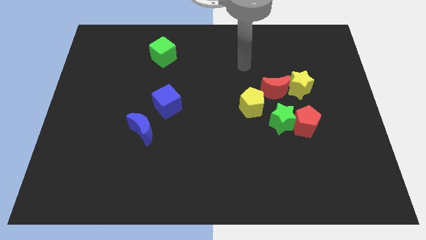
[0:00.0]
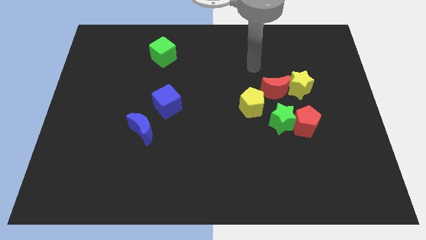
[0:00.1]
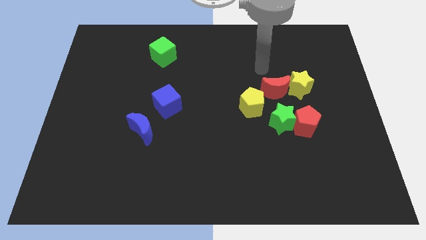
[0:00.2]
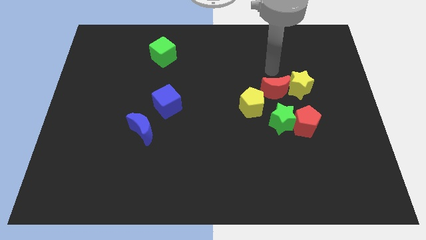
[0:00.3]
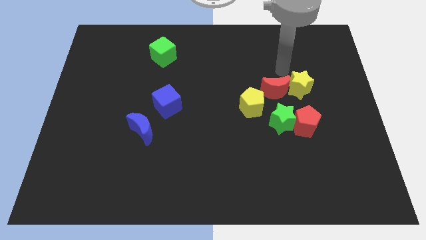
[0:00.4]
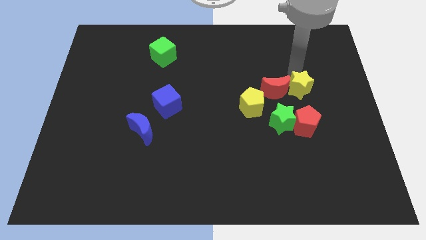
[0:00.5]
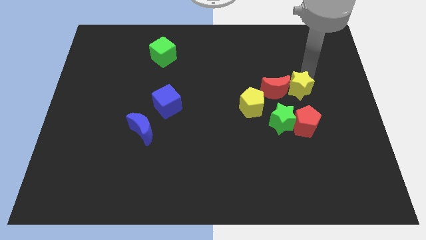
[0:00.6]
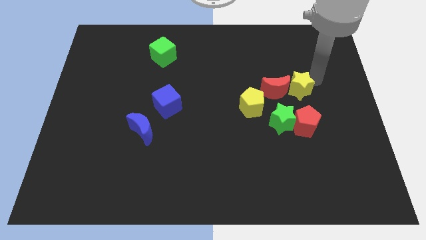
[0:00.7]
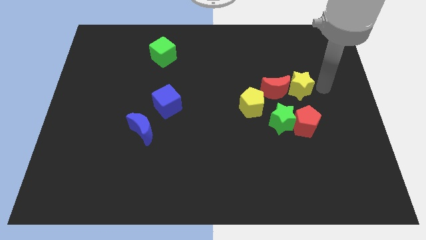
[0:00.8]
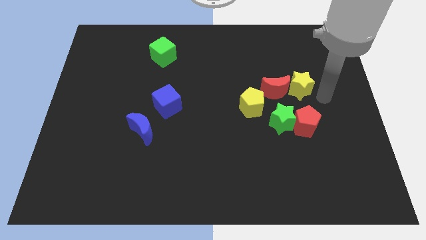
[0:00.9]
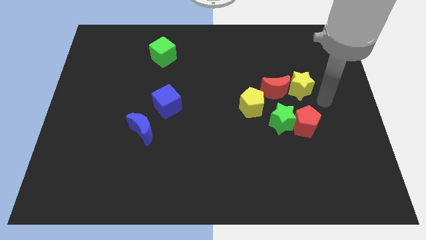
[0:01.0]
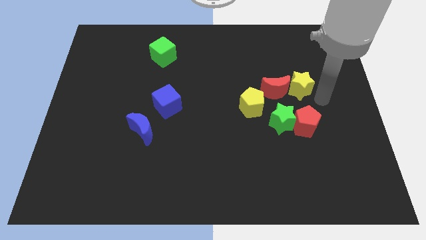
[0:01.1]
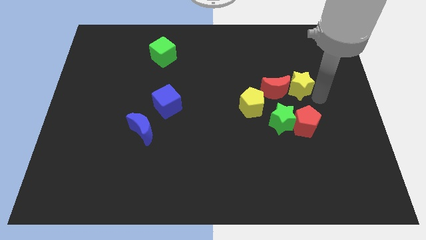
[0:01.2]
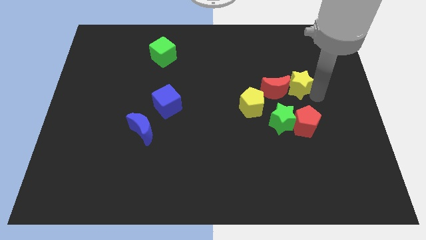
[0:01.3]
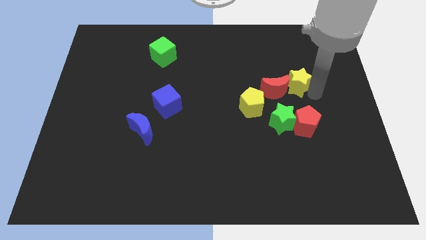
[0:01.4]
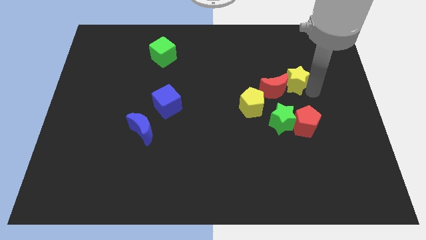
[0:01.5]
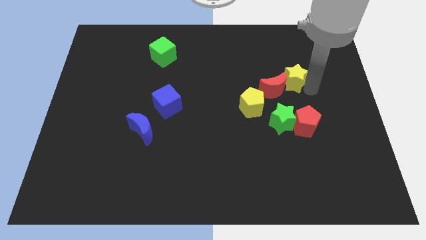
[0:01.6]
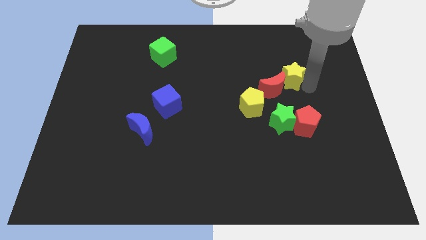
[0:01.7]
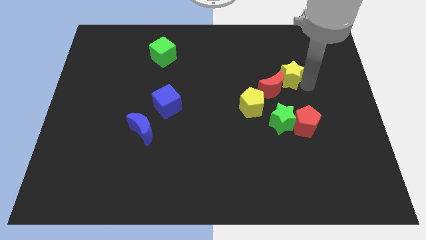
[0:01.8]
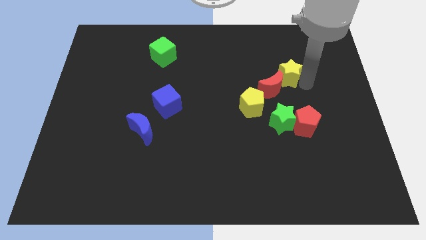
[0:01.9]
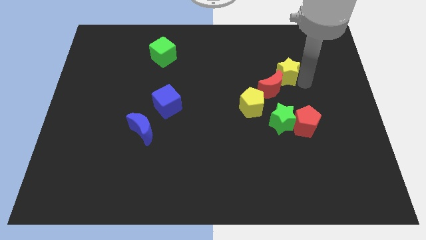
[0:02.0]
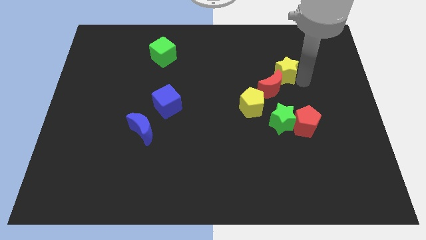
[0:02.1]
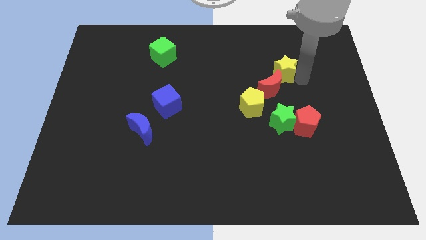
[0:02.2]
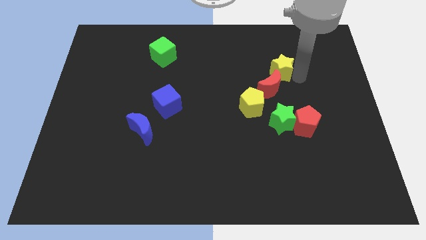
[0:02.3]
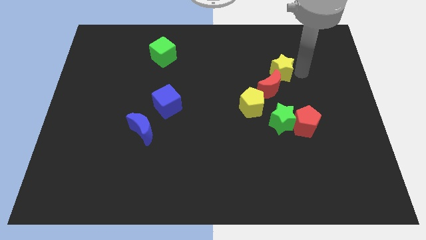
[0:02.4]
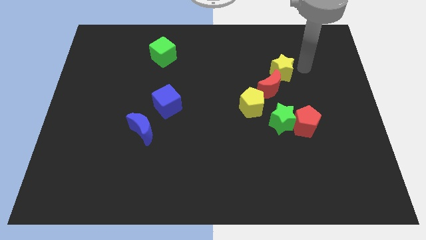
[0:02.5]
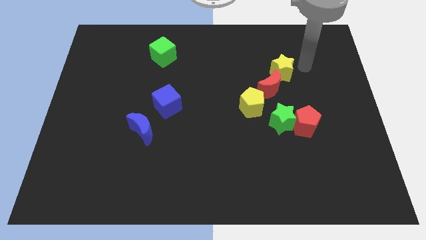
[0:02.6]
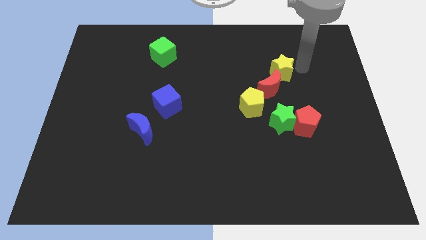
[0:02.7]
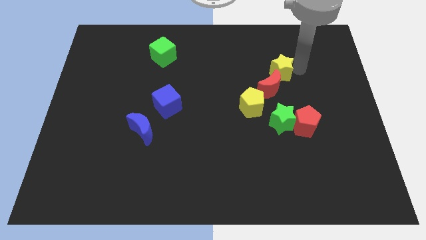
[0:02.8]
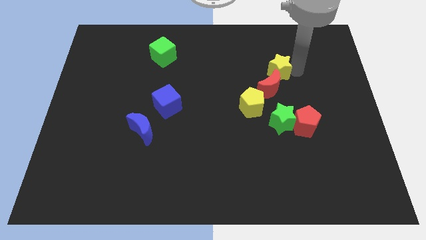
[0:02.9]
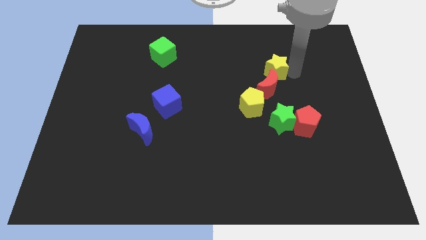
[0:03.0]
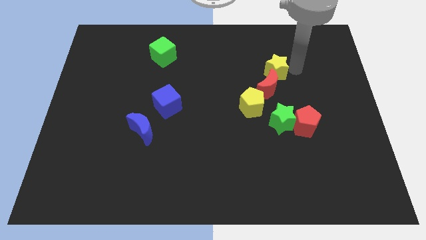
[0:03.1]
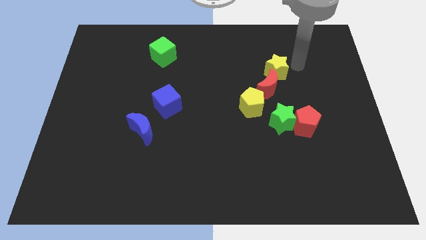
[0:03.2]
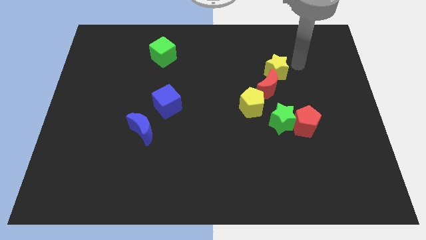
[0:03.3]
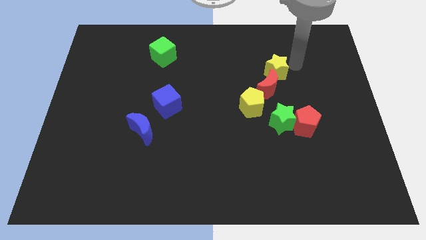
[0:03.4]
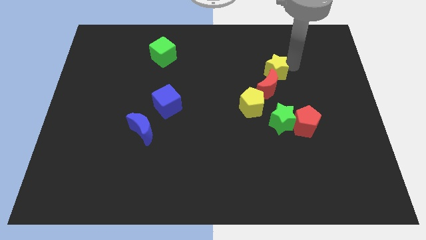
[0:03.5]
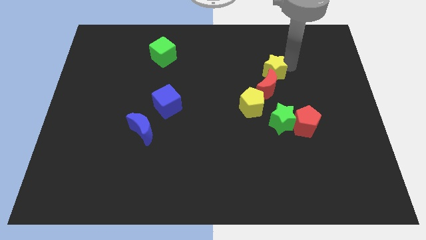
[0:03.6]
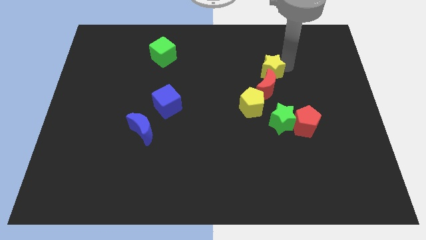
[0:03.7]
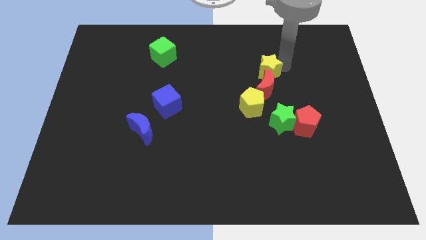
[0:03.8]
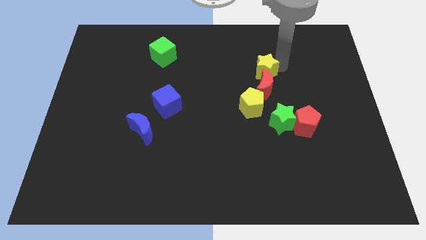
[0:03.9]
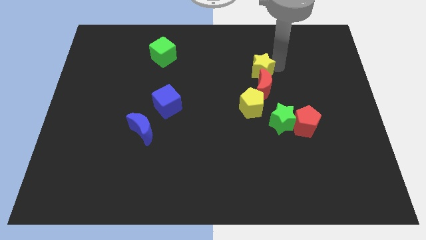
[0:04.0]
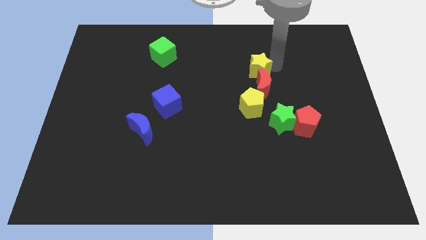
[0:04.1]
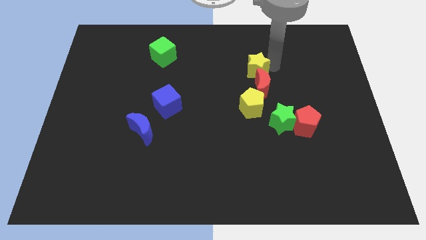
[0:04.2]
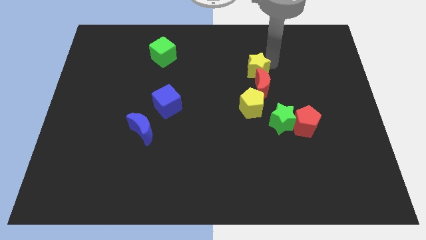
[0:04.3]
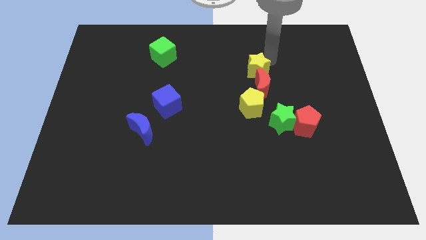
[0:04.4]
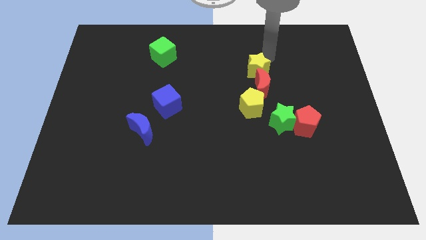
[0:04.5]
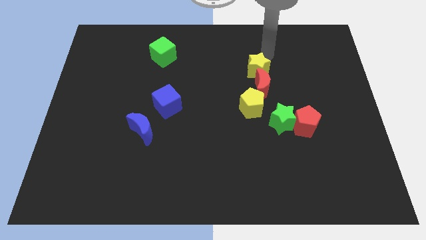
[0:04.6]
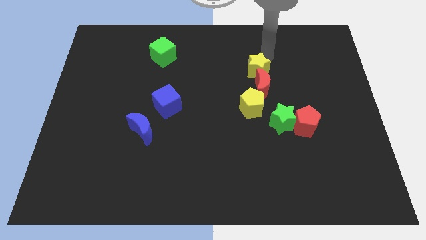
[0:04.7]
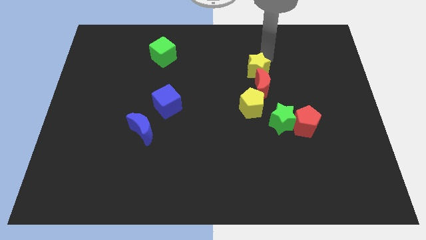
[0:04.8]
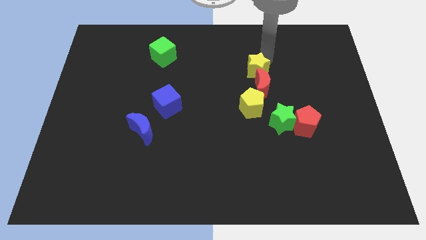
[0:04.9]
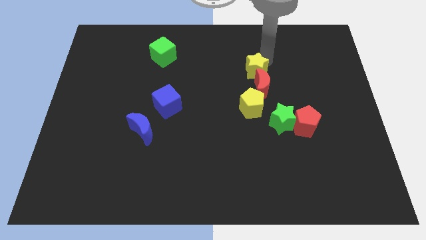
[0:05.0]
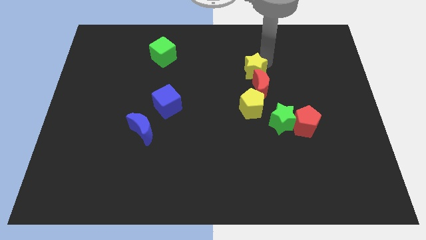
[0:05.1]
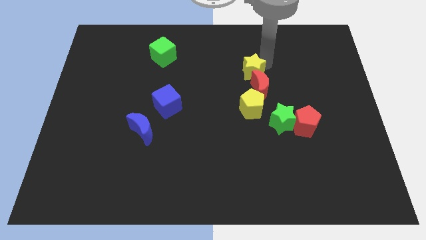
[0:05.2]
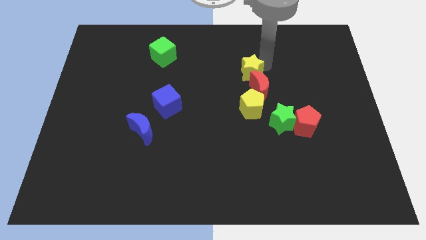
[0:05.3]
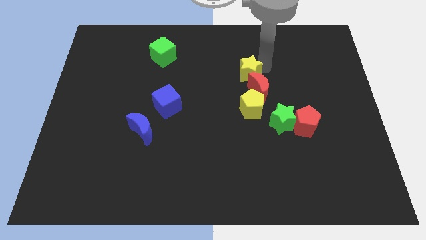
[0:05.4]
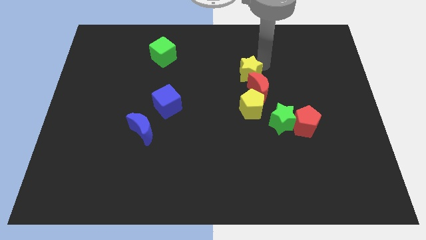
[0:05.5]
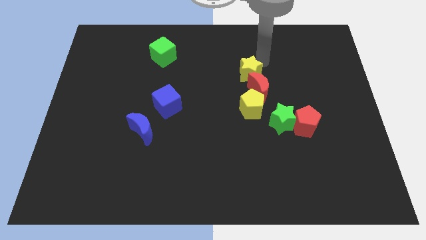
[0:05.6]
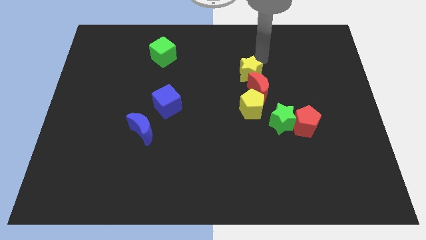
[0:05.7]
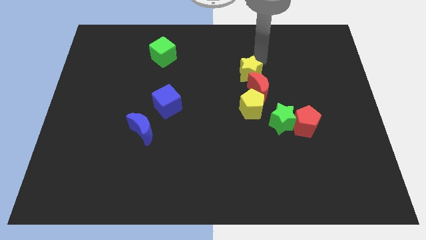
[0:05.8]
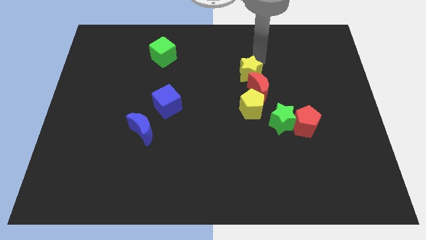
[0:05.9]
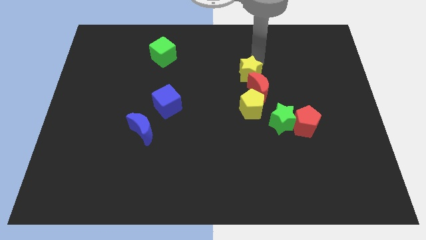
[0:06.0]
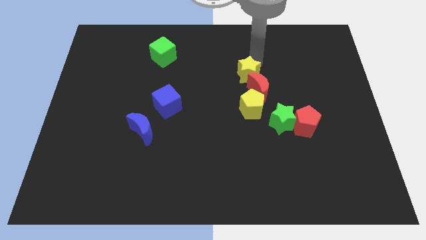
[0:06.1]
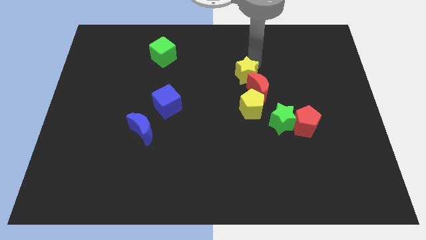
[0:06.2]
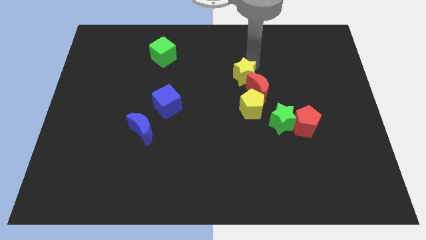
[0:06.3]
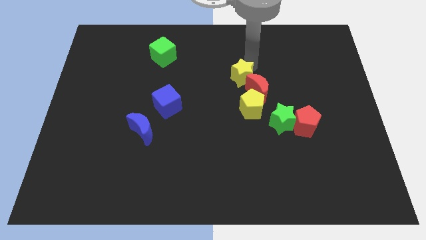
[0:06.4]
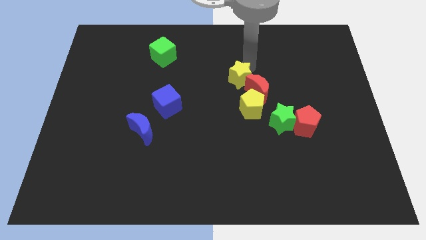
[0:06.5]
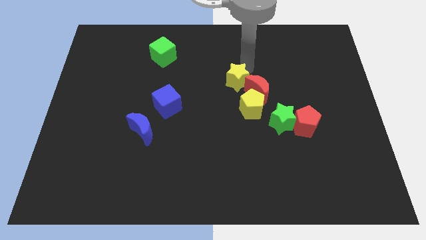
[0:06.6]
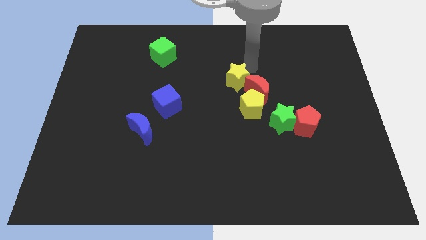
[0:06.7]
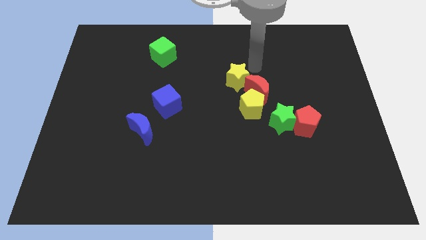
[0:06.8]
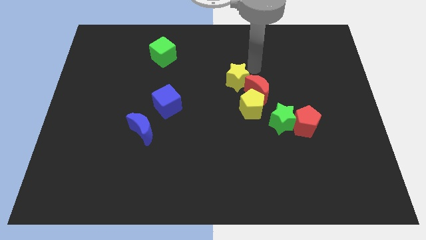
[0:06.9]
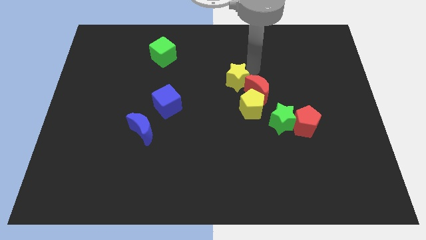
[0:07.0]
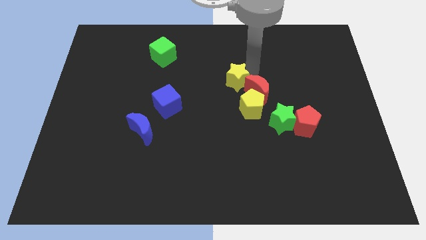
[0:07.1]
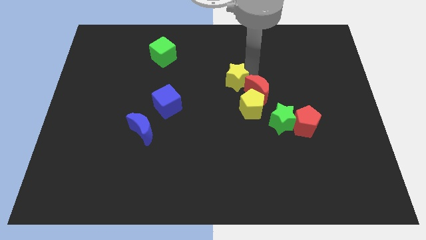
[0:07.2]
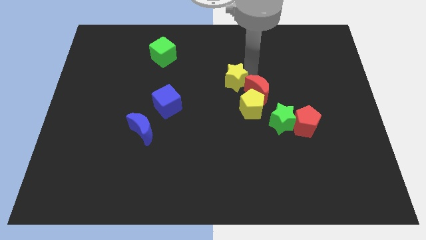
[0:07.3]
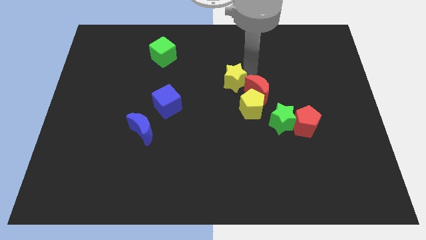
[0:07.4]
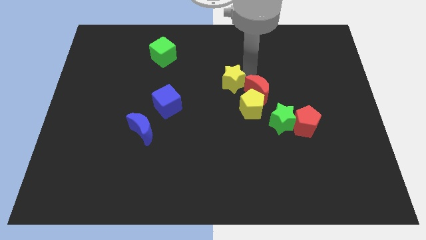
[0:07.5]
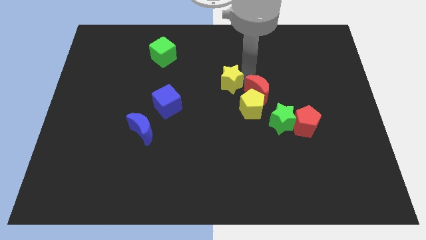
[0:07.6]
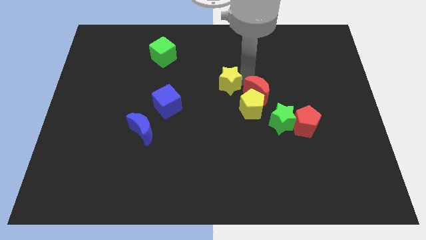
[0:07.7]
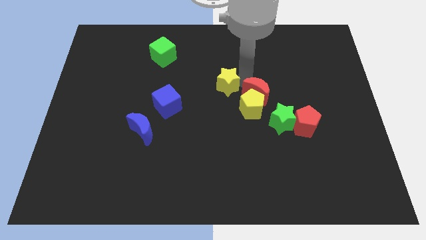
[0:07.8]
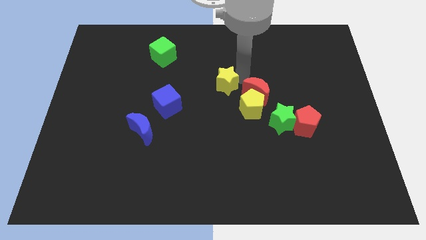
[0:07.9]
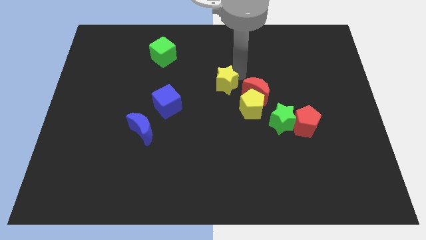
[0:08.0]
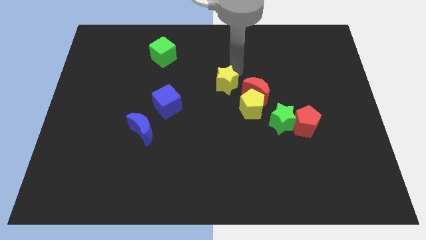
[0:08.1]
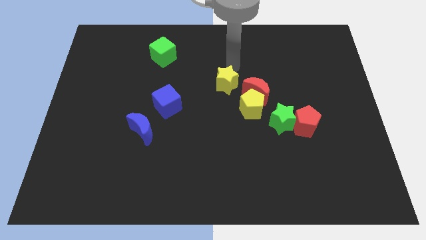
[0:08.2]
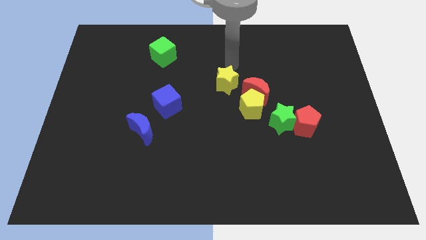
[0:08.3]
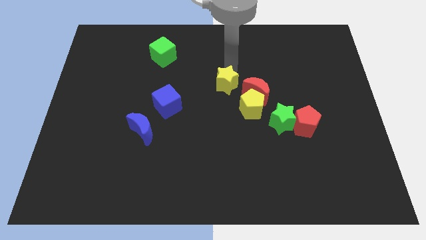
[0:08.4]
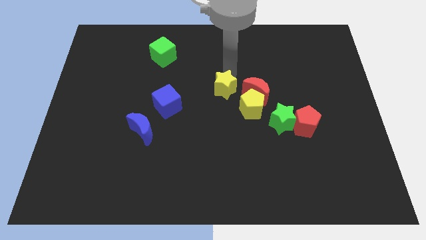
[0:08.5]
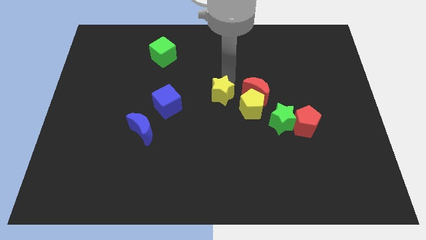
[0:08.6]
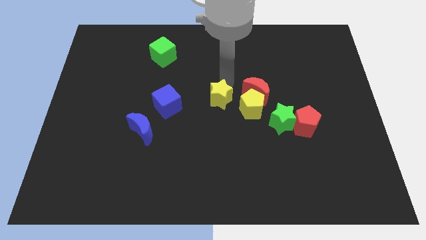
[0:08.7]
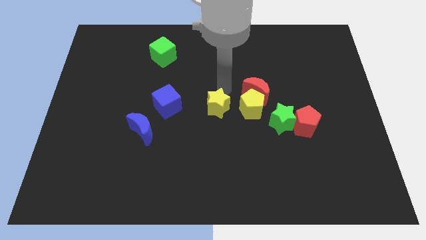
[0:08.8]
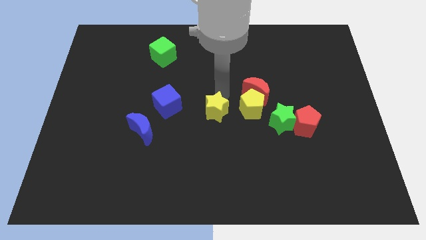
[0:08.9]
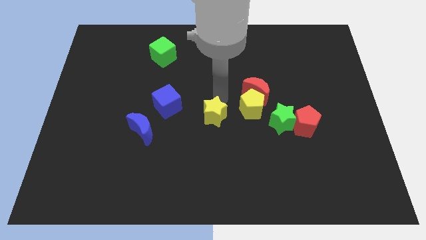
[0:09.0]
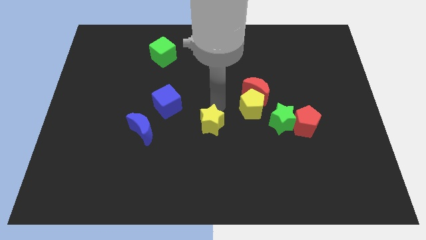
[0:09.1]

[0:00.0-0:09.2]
push the yellow star downwards and left diagonally
